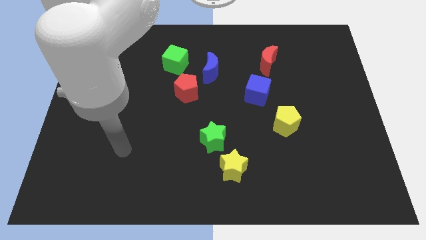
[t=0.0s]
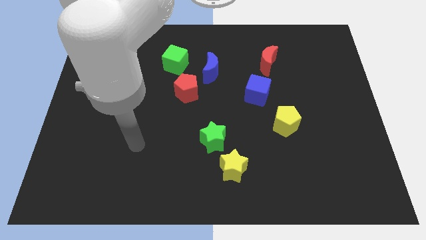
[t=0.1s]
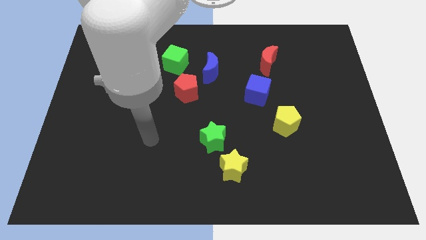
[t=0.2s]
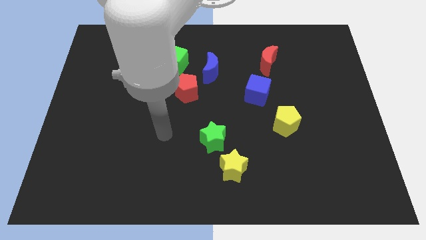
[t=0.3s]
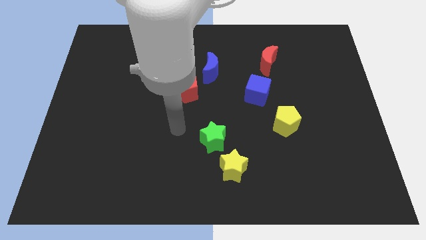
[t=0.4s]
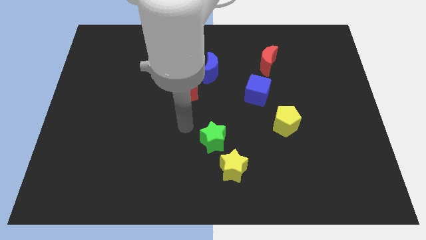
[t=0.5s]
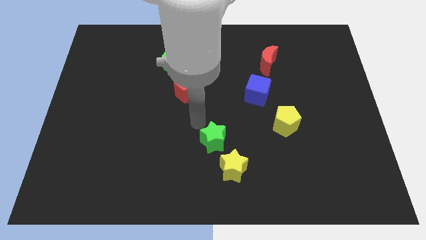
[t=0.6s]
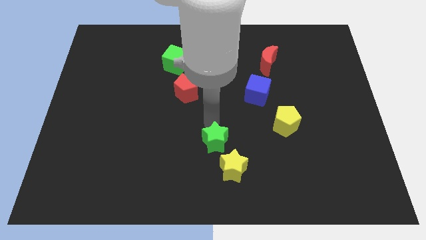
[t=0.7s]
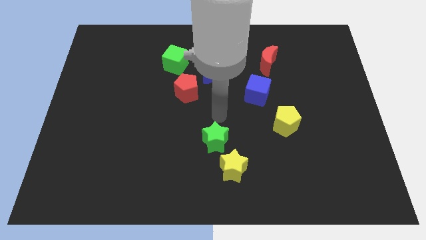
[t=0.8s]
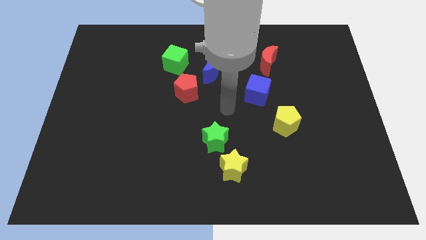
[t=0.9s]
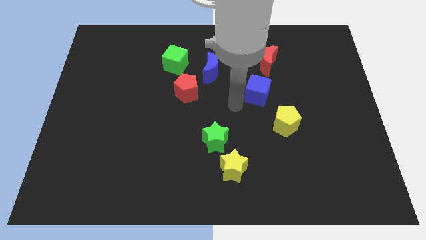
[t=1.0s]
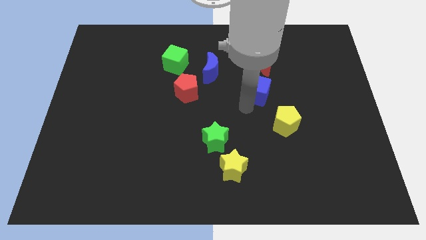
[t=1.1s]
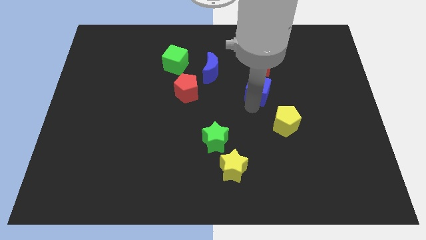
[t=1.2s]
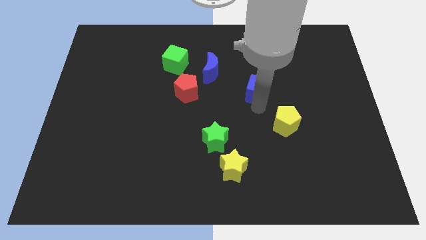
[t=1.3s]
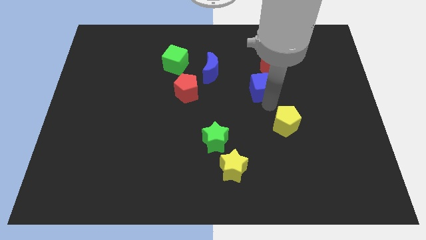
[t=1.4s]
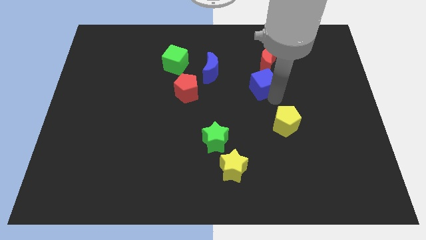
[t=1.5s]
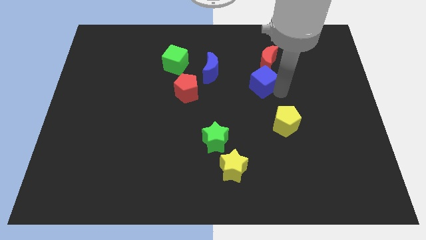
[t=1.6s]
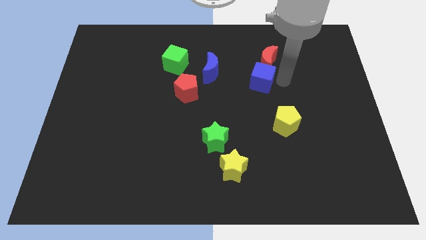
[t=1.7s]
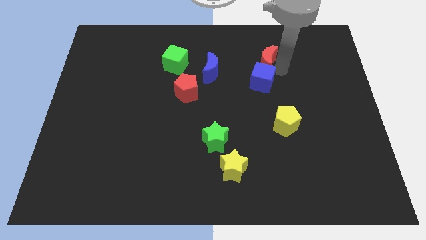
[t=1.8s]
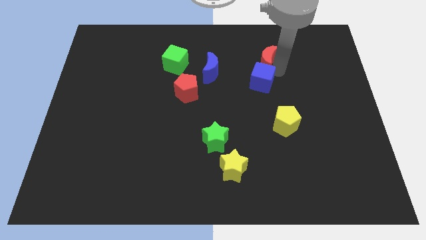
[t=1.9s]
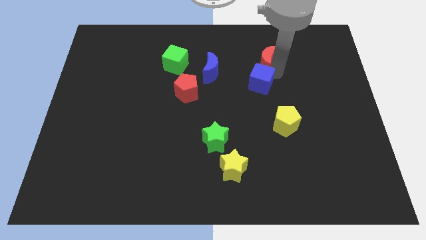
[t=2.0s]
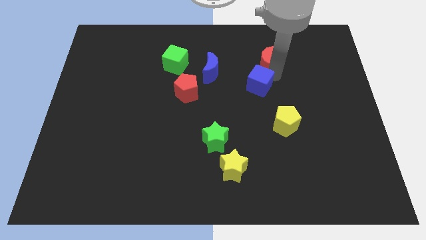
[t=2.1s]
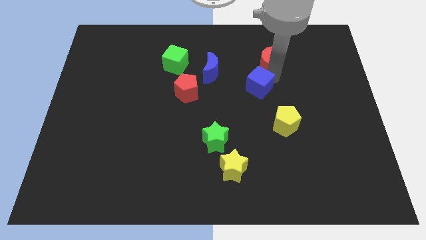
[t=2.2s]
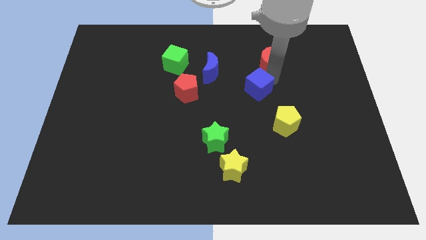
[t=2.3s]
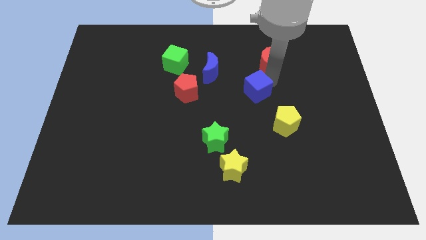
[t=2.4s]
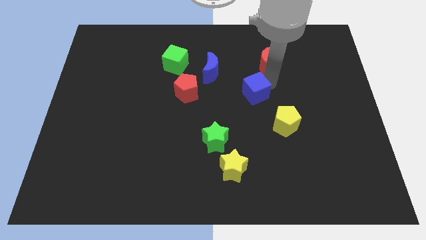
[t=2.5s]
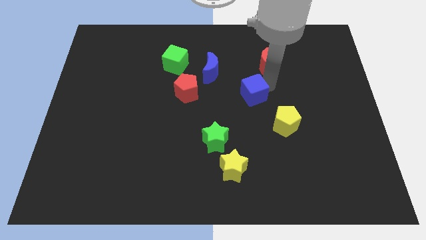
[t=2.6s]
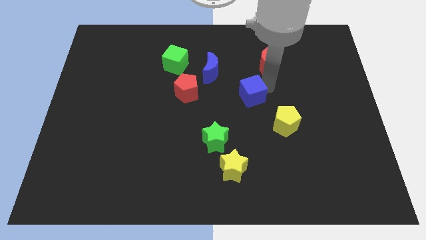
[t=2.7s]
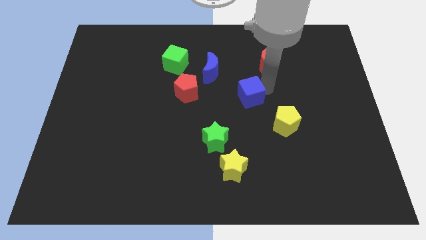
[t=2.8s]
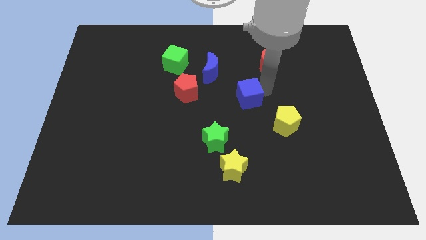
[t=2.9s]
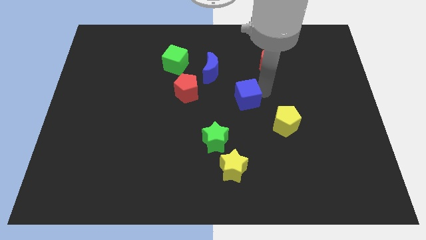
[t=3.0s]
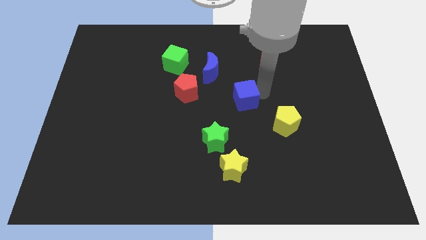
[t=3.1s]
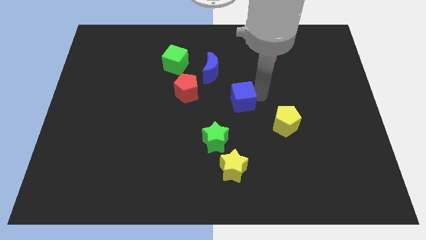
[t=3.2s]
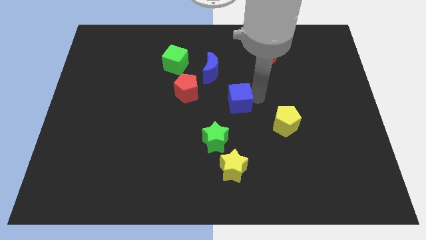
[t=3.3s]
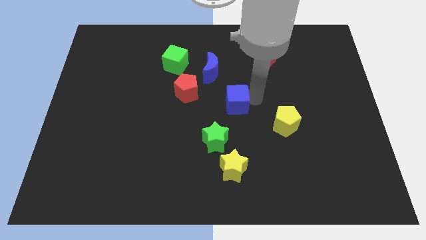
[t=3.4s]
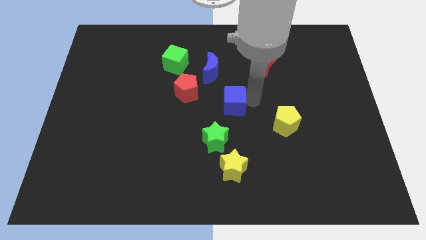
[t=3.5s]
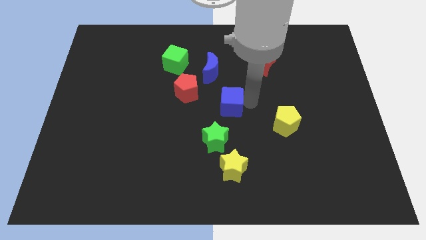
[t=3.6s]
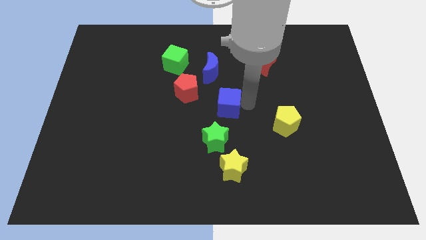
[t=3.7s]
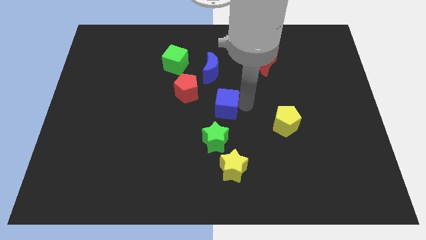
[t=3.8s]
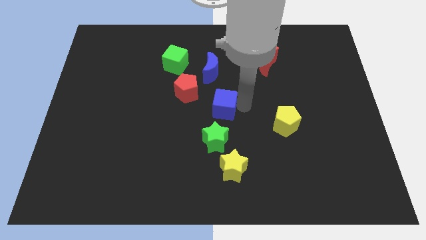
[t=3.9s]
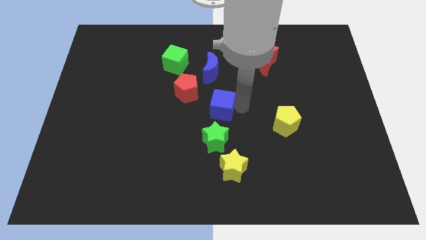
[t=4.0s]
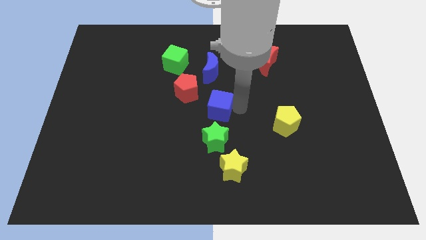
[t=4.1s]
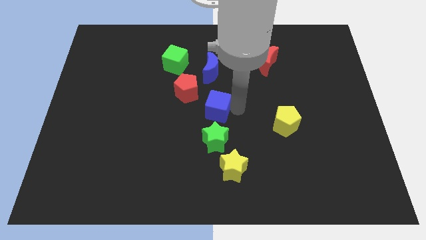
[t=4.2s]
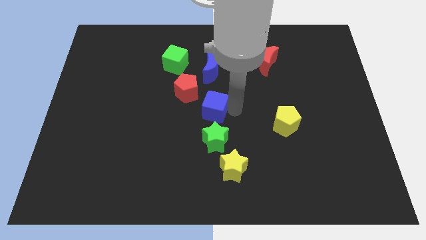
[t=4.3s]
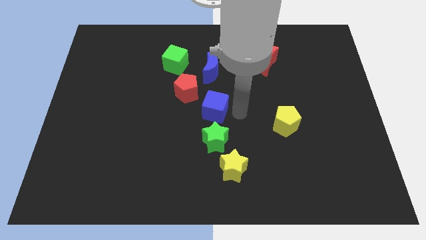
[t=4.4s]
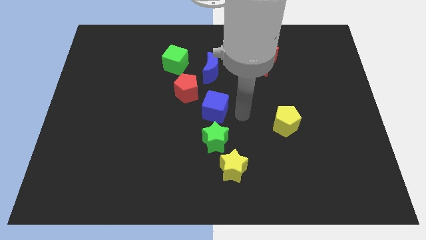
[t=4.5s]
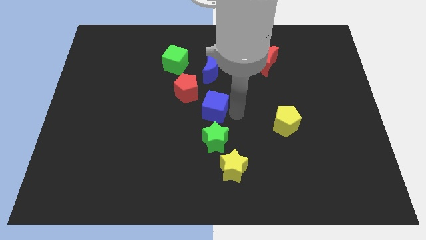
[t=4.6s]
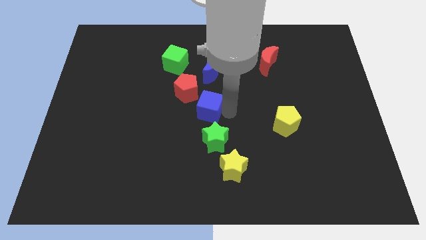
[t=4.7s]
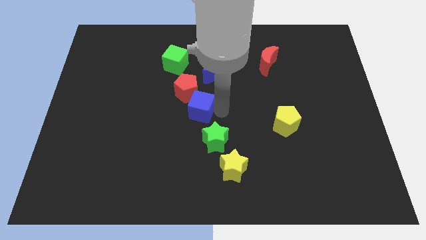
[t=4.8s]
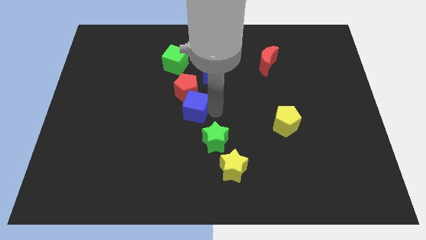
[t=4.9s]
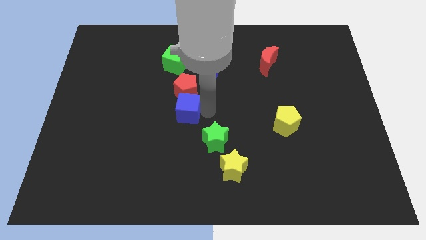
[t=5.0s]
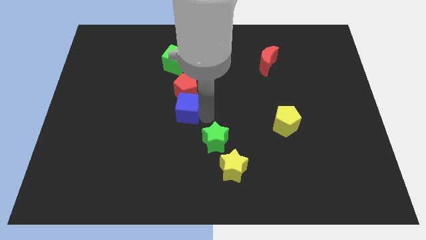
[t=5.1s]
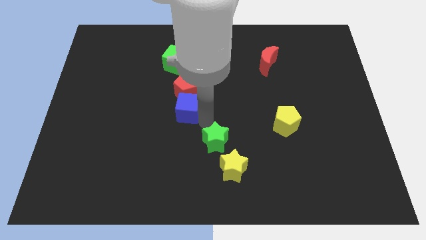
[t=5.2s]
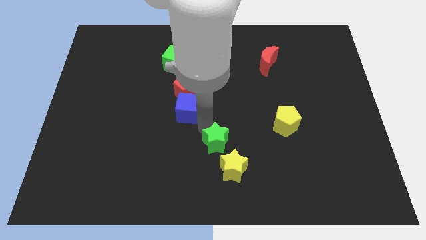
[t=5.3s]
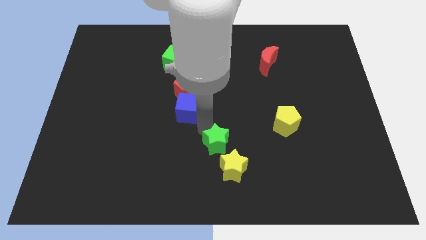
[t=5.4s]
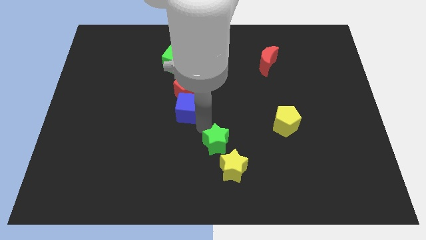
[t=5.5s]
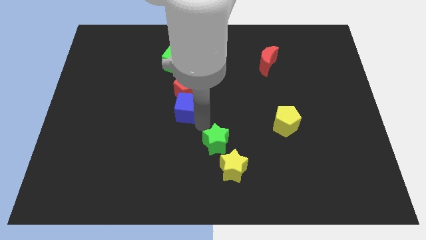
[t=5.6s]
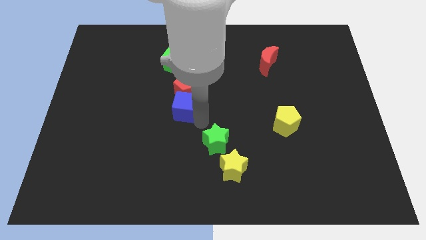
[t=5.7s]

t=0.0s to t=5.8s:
push the blue cube to the bottom of the green cube

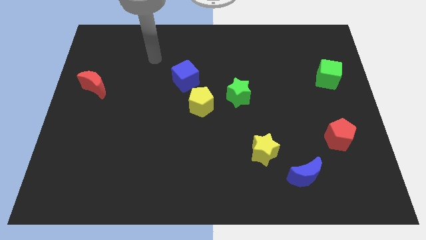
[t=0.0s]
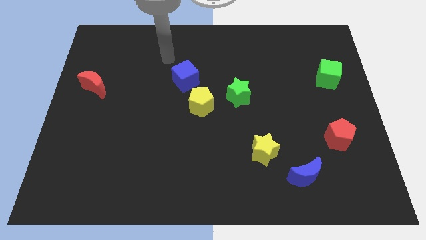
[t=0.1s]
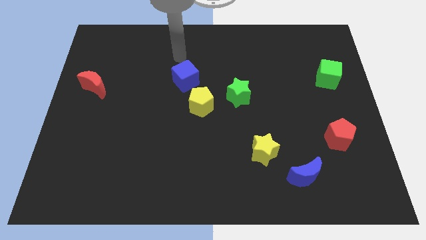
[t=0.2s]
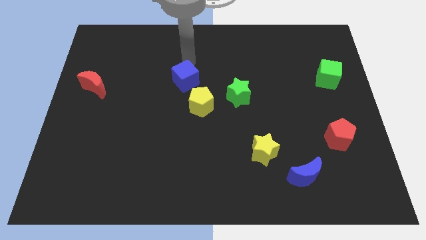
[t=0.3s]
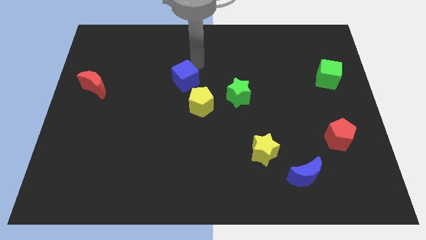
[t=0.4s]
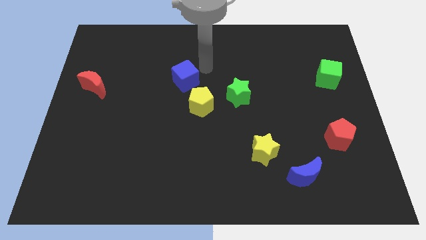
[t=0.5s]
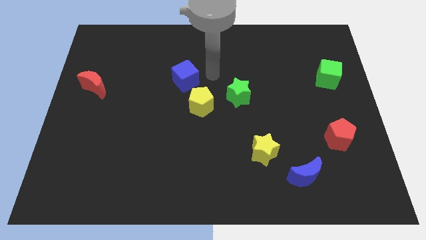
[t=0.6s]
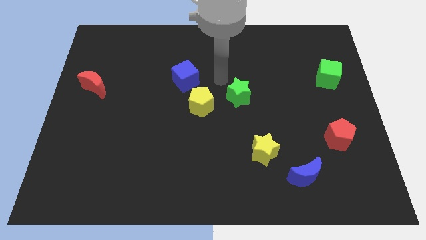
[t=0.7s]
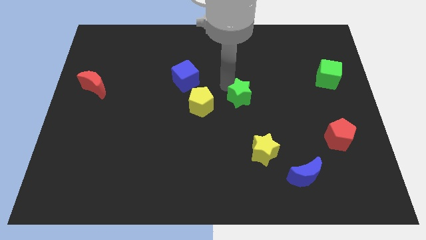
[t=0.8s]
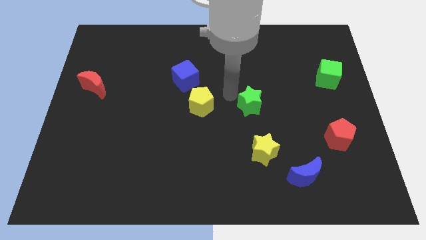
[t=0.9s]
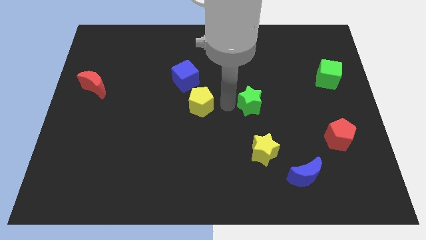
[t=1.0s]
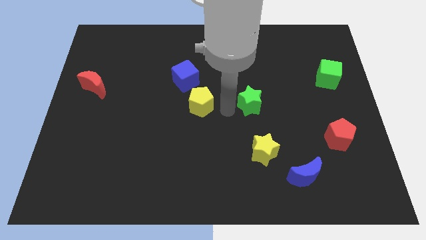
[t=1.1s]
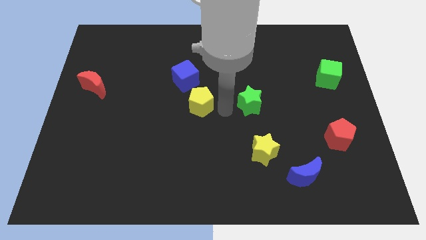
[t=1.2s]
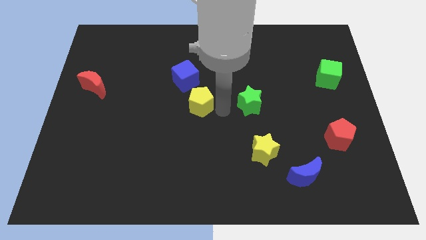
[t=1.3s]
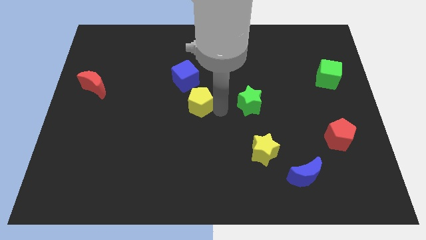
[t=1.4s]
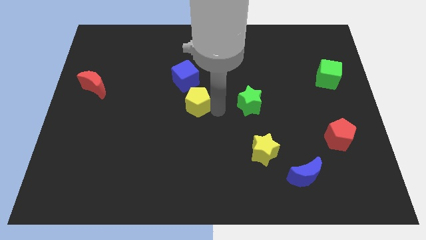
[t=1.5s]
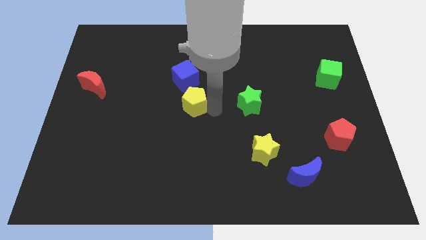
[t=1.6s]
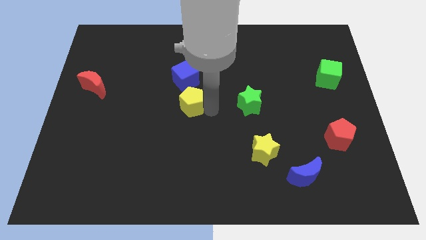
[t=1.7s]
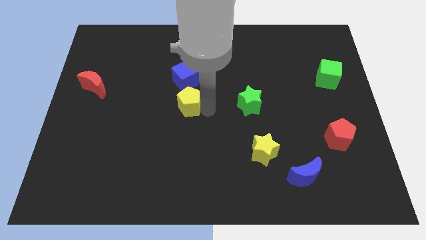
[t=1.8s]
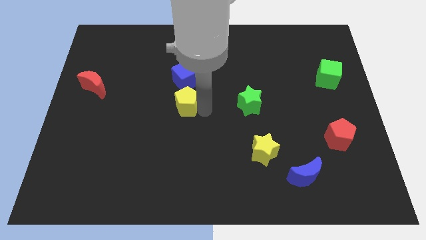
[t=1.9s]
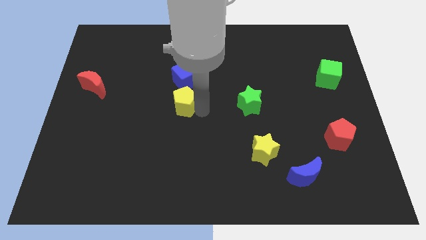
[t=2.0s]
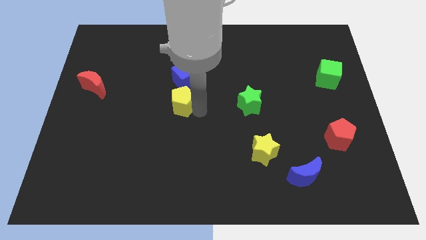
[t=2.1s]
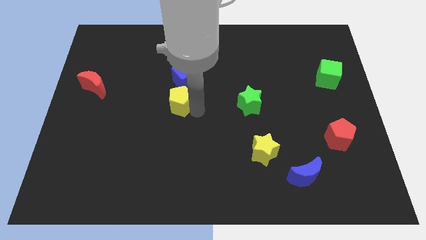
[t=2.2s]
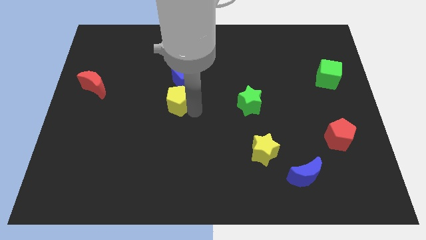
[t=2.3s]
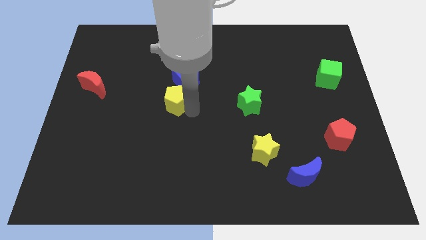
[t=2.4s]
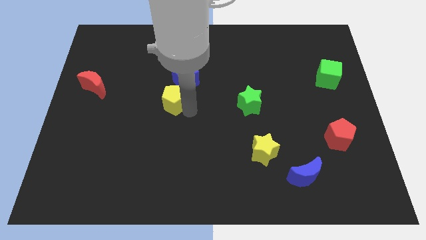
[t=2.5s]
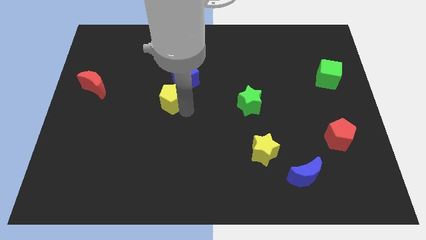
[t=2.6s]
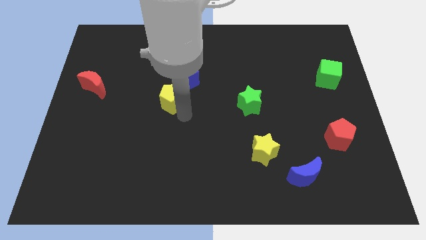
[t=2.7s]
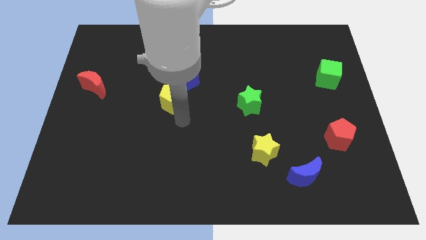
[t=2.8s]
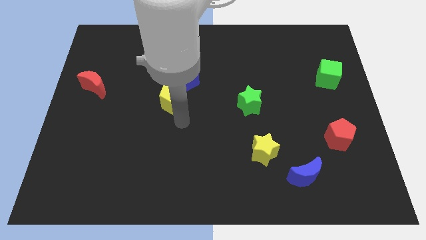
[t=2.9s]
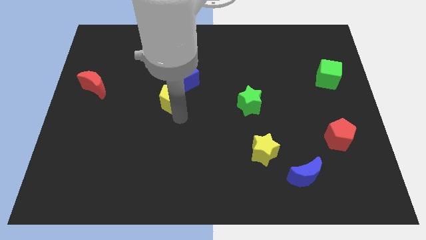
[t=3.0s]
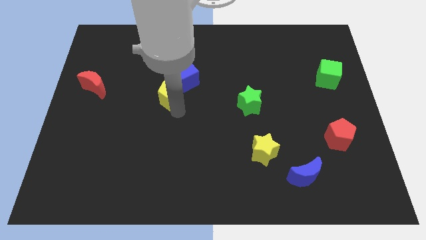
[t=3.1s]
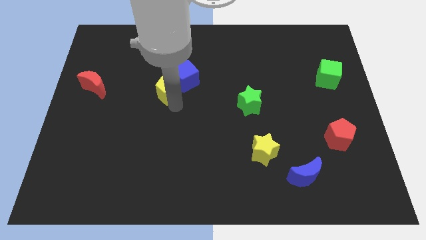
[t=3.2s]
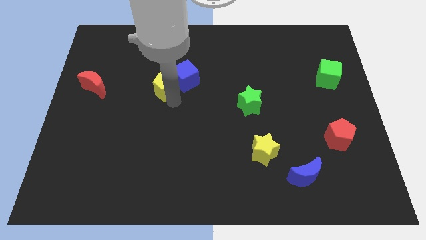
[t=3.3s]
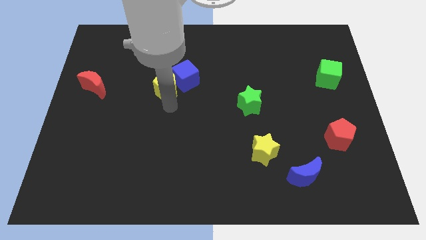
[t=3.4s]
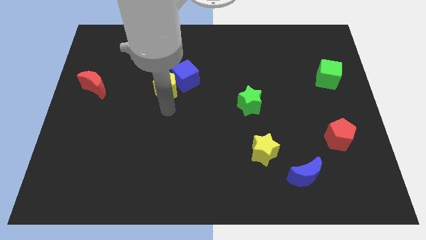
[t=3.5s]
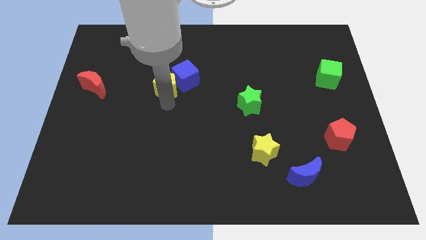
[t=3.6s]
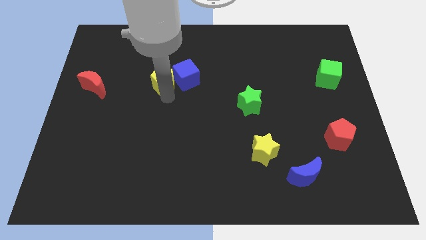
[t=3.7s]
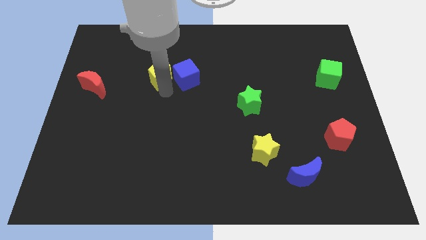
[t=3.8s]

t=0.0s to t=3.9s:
push the yellow pentagon to the top left side of the blue cube
